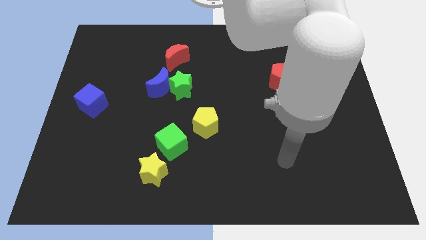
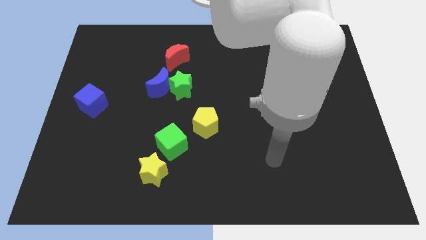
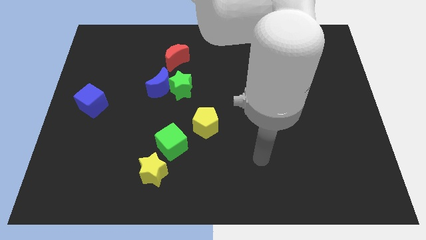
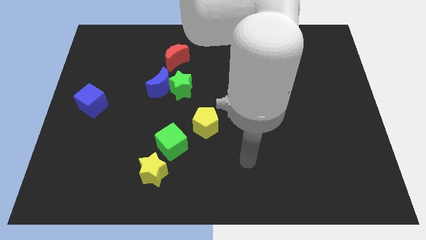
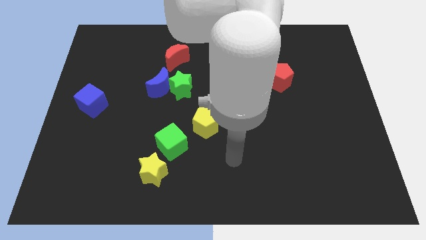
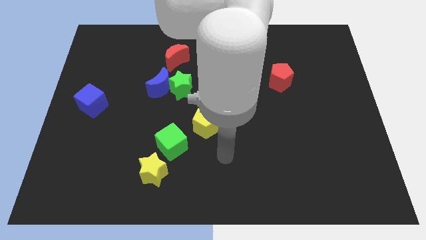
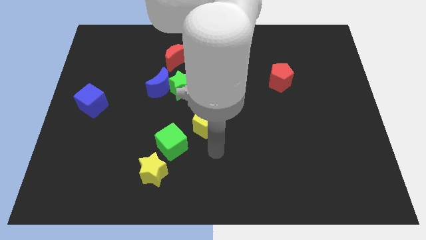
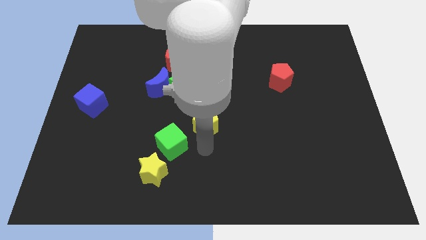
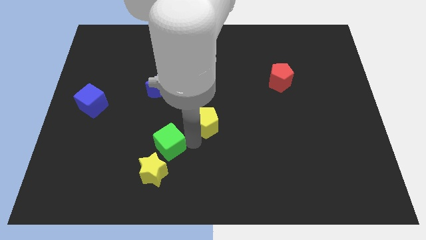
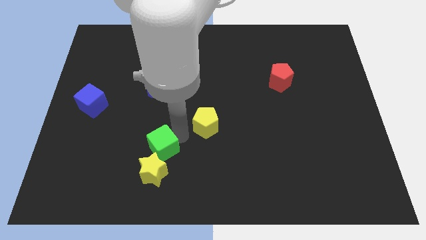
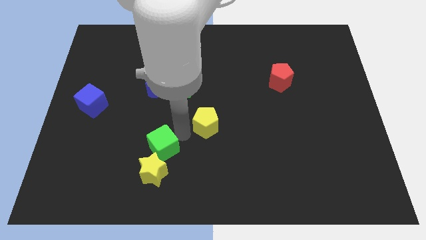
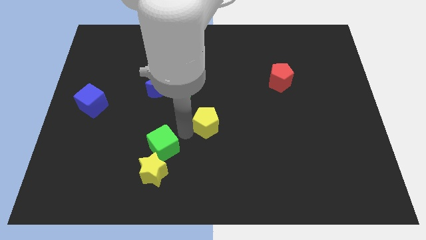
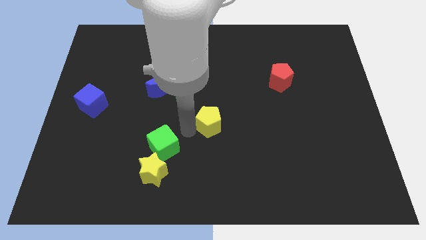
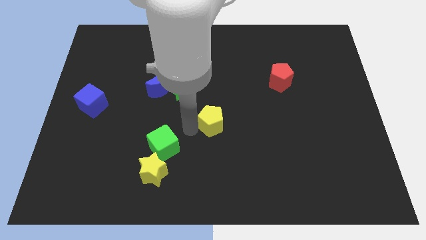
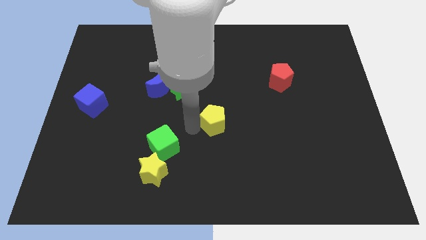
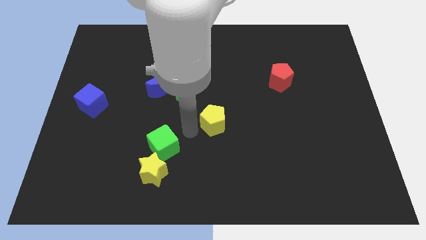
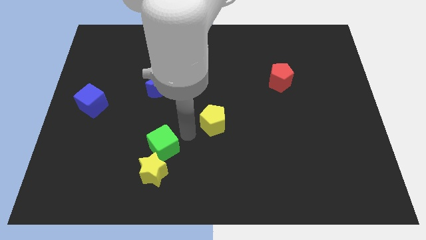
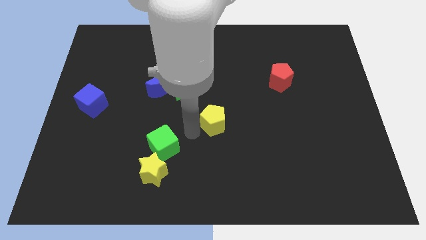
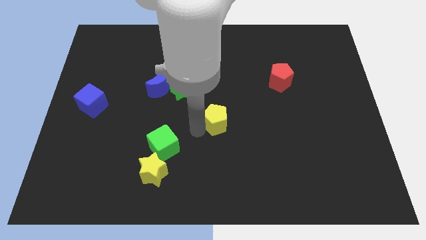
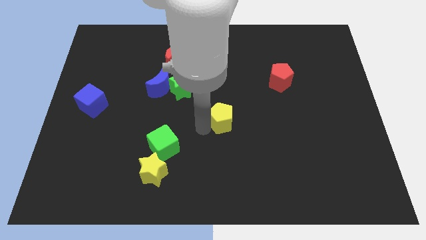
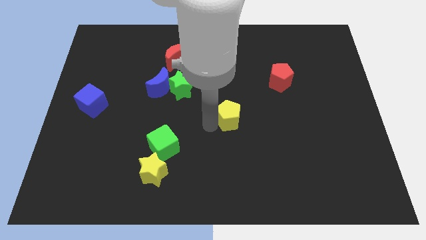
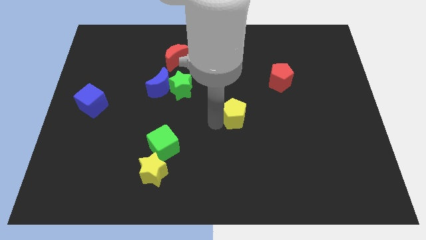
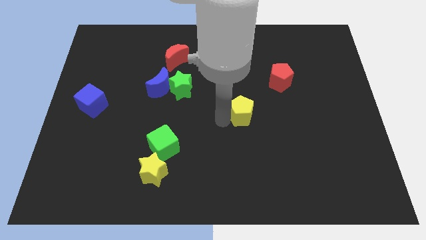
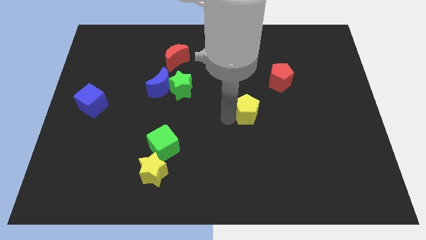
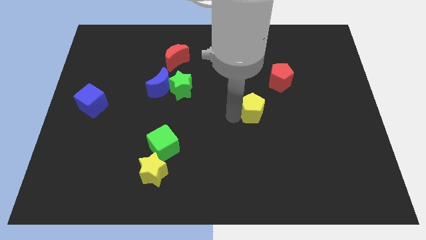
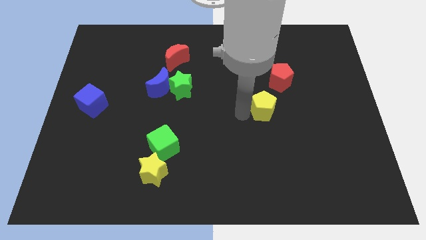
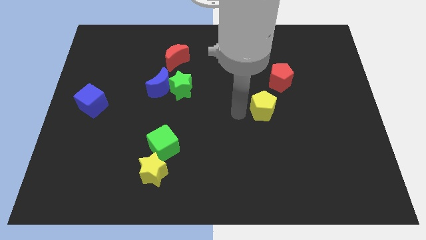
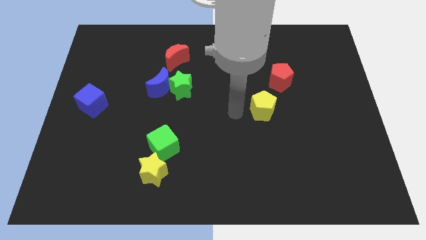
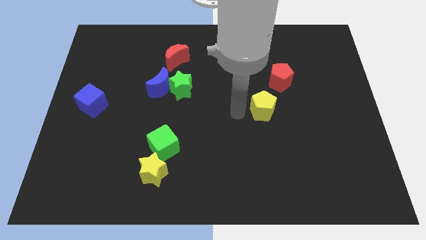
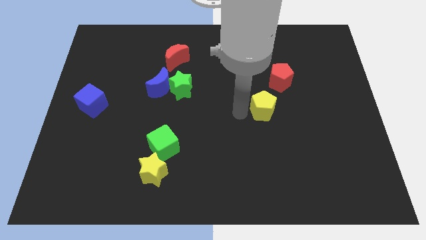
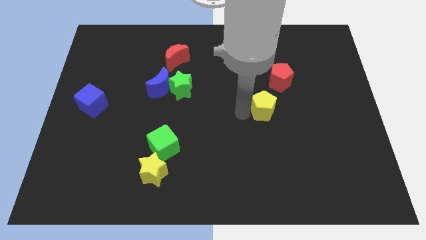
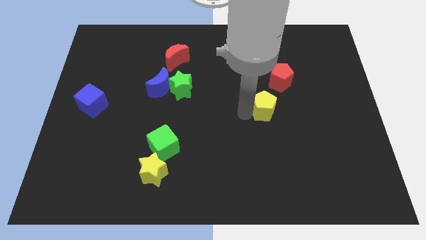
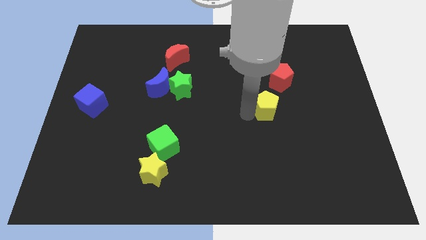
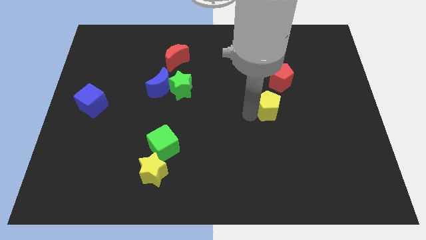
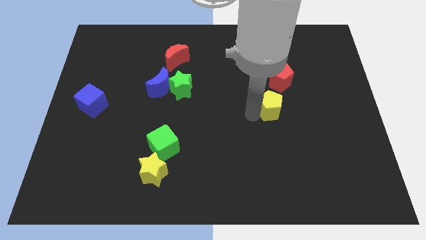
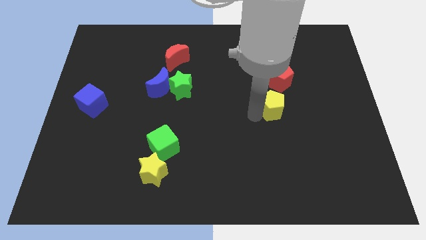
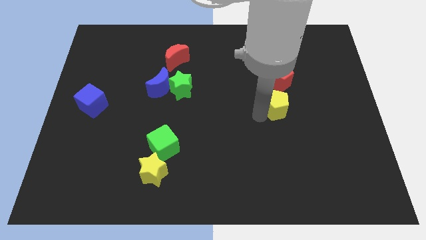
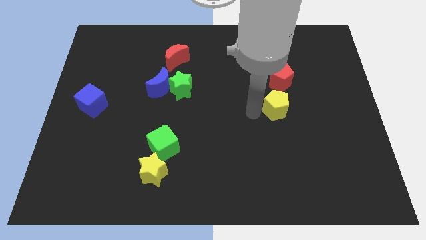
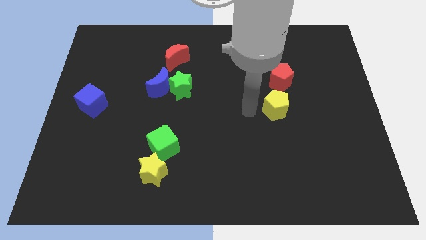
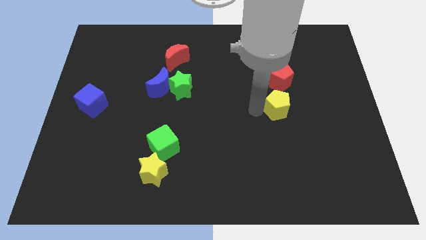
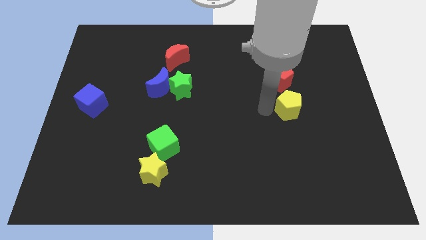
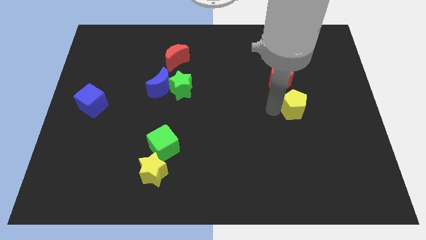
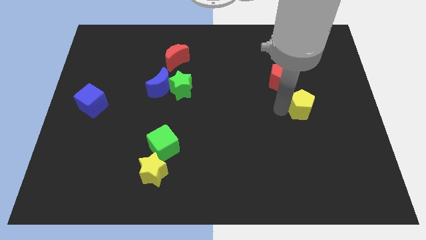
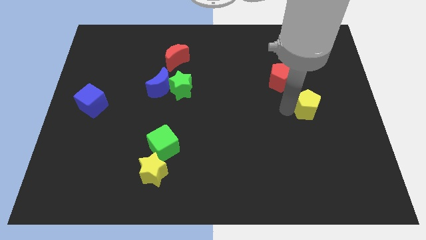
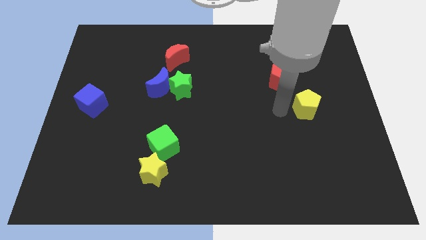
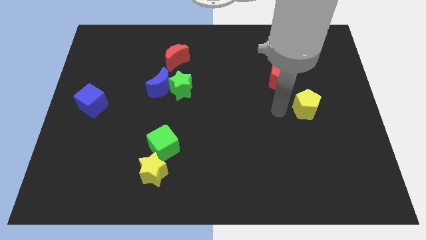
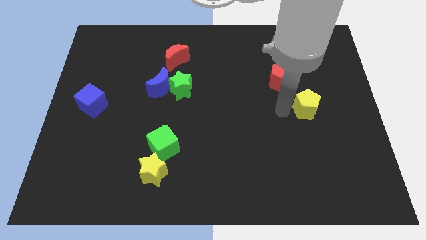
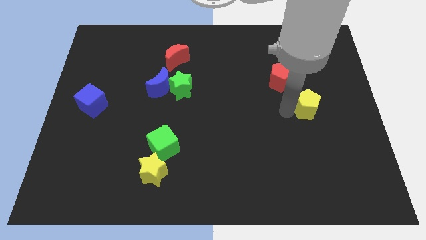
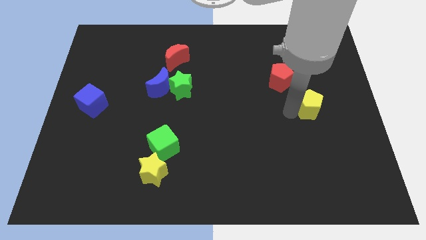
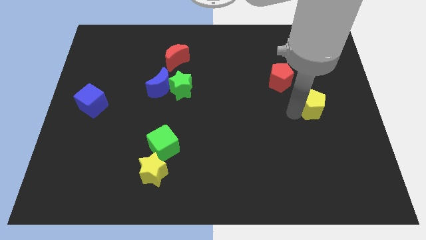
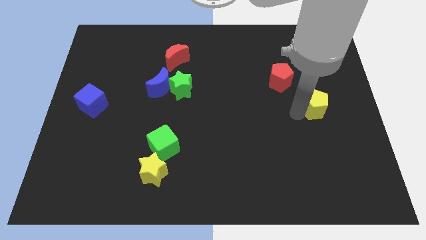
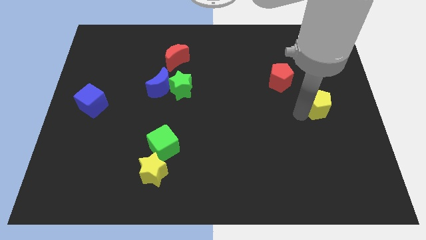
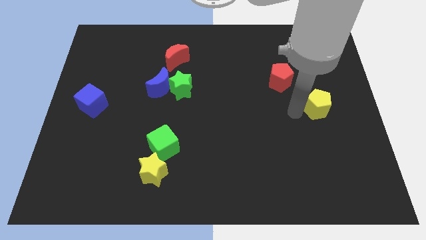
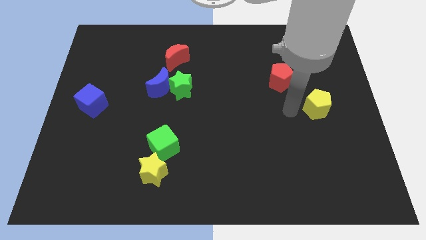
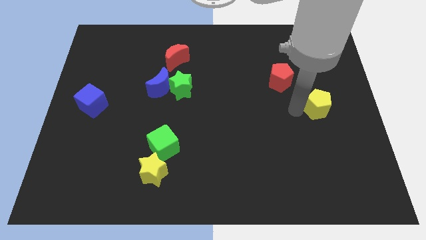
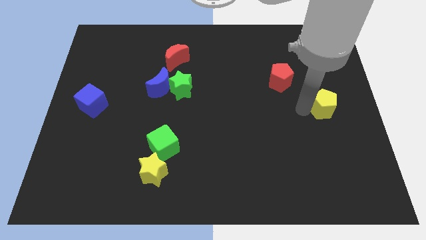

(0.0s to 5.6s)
push the yellow pentagon to the right side of the board
